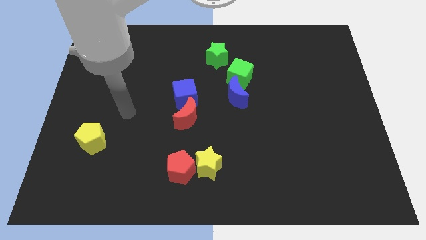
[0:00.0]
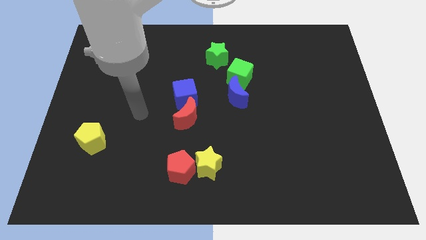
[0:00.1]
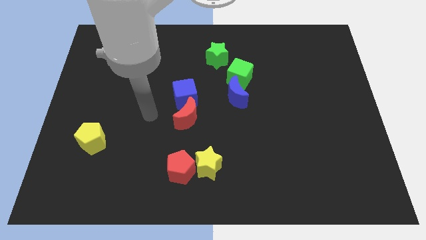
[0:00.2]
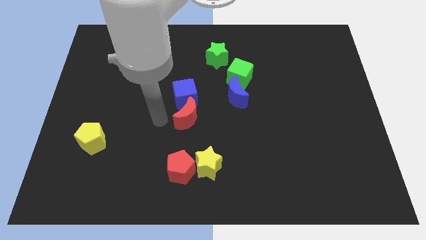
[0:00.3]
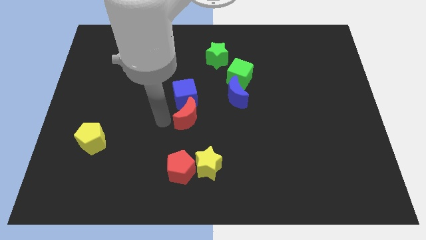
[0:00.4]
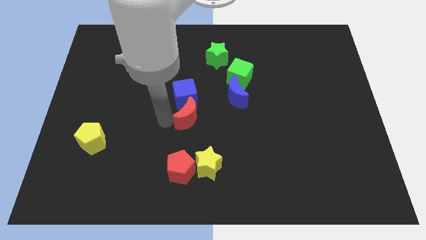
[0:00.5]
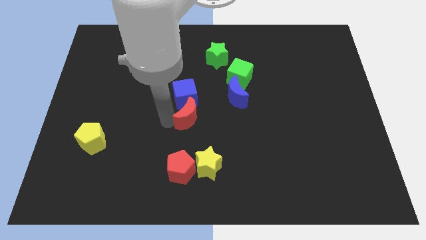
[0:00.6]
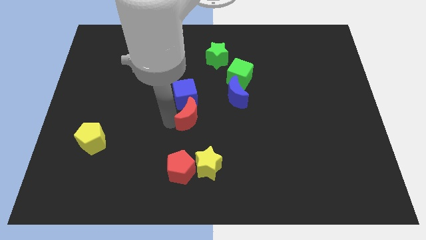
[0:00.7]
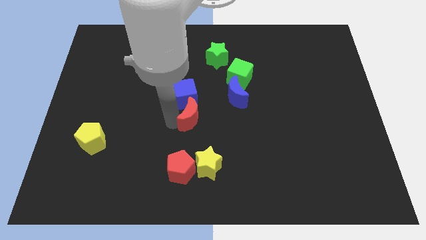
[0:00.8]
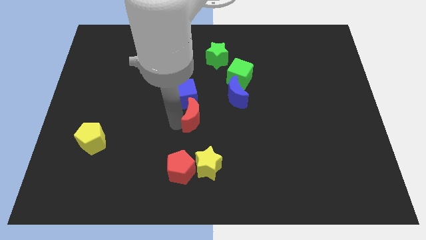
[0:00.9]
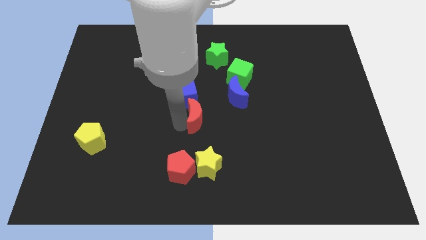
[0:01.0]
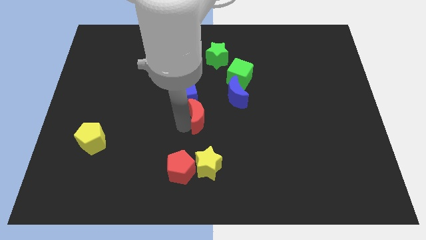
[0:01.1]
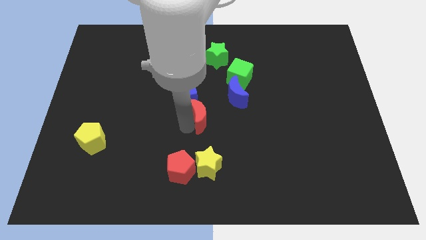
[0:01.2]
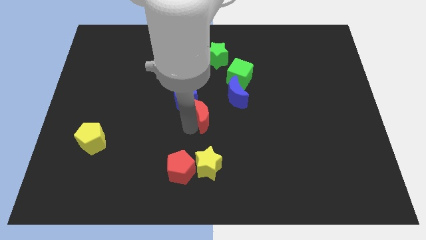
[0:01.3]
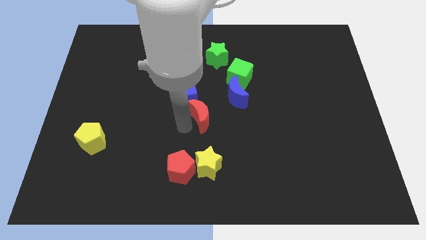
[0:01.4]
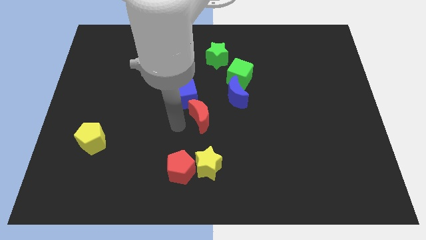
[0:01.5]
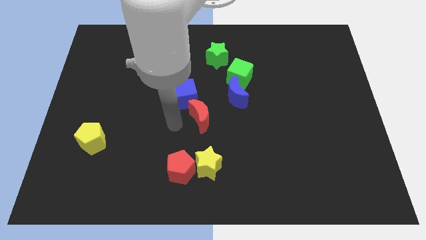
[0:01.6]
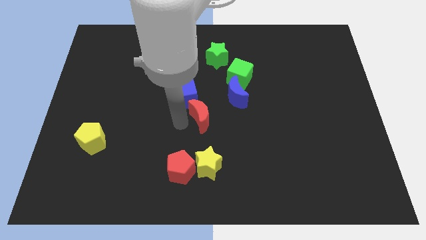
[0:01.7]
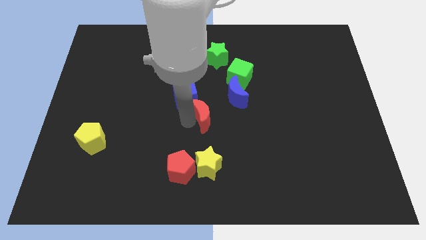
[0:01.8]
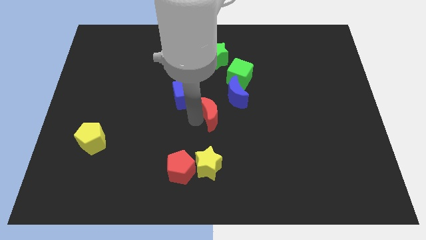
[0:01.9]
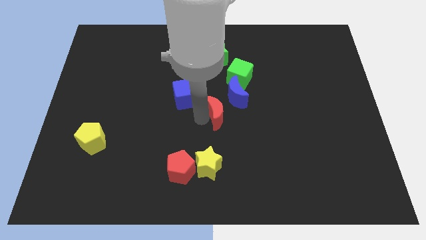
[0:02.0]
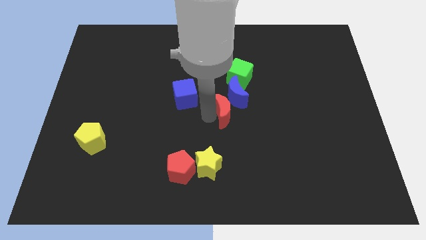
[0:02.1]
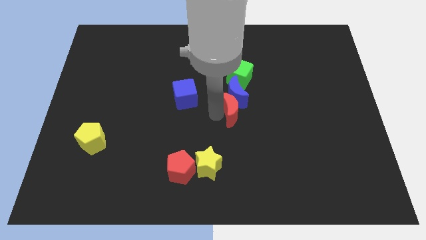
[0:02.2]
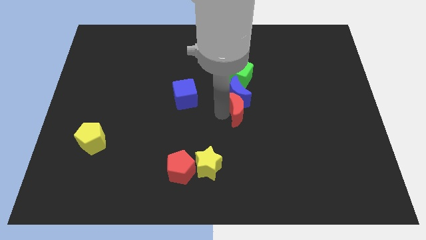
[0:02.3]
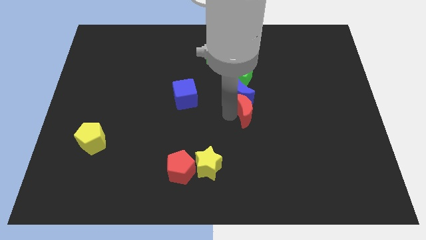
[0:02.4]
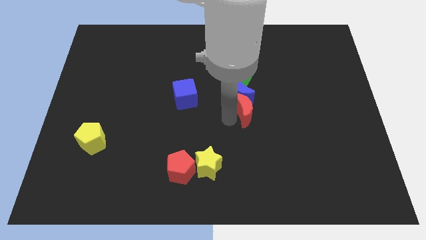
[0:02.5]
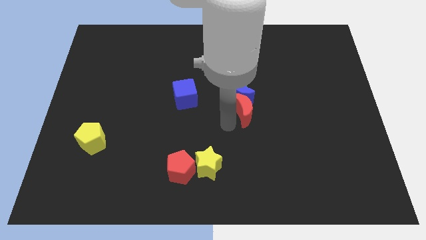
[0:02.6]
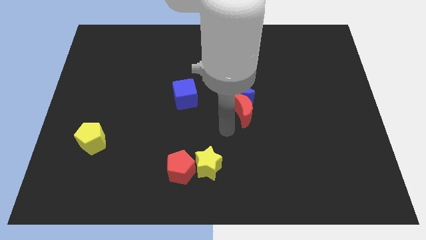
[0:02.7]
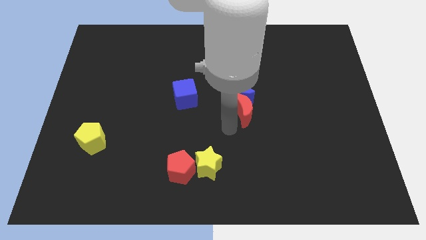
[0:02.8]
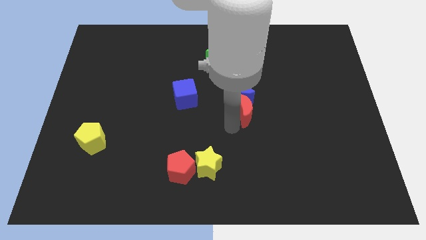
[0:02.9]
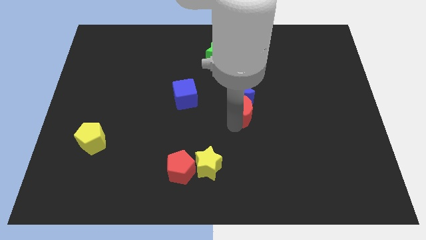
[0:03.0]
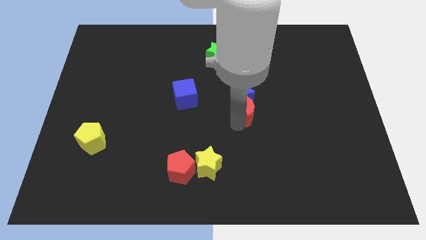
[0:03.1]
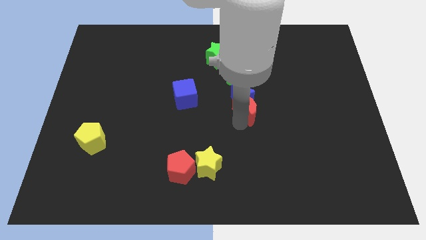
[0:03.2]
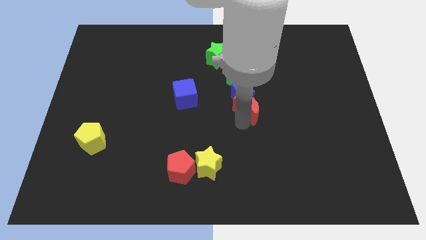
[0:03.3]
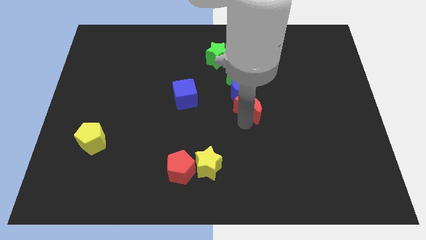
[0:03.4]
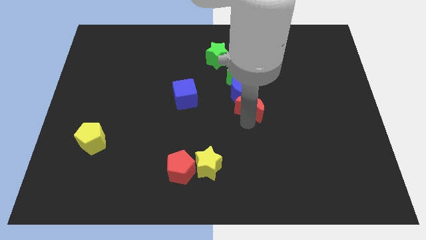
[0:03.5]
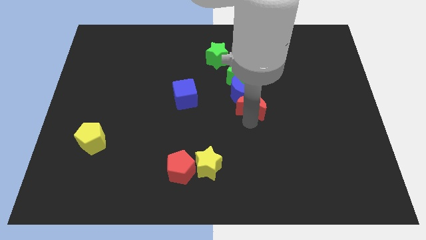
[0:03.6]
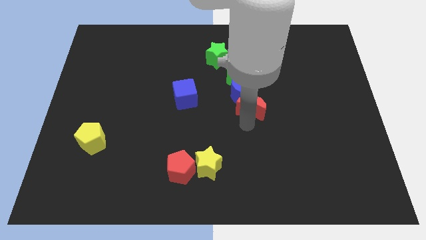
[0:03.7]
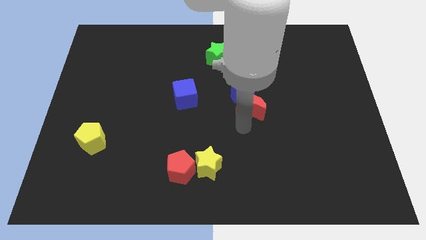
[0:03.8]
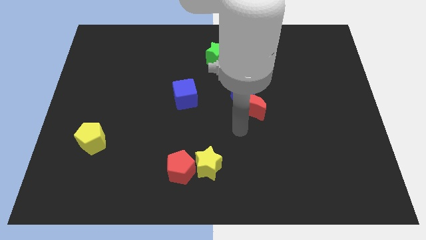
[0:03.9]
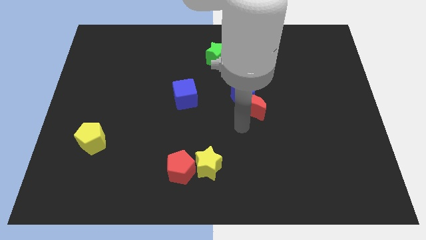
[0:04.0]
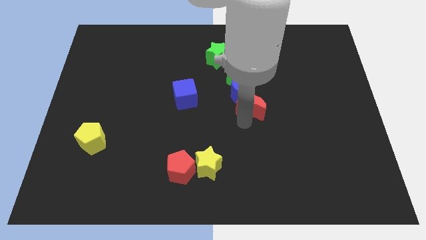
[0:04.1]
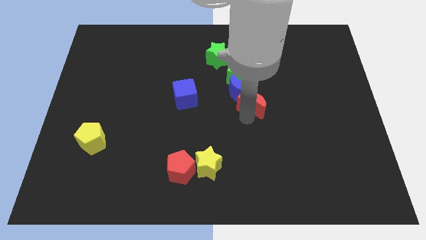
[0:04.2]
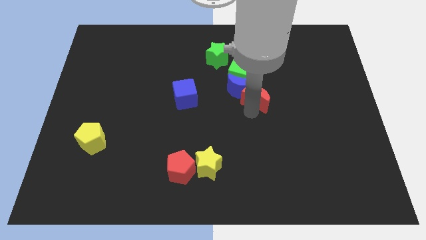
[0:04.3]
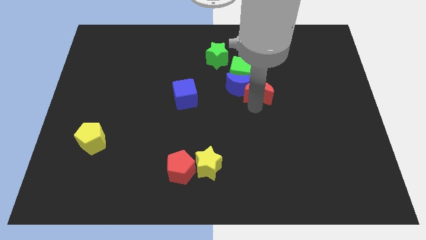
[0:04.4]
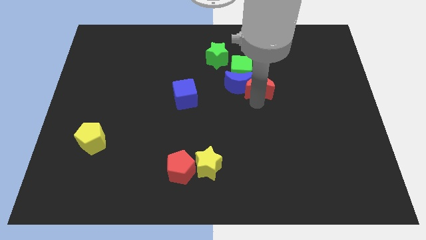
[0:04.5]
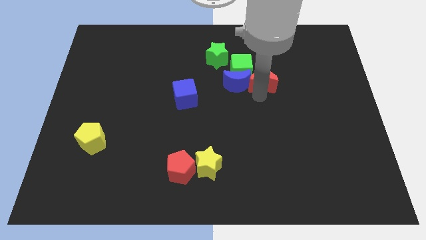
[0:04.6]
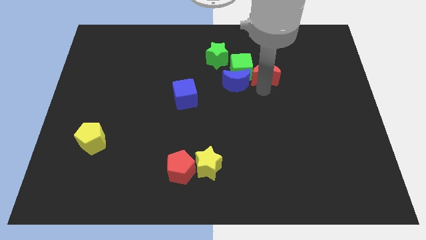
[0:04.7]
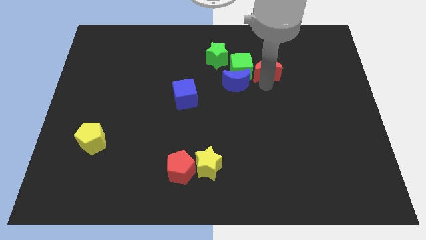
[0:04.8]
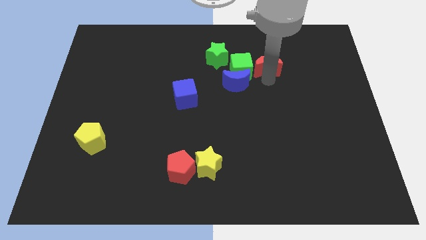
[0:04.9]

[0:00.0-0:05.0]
slide the red moon to the right side of the green star

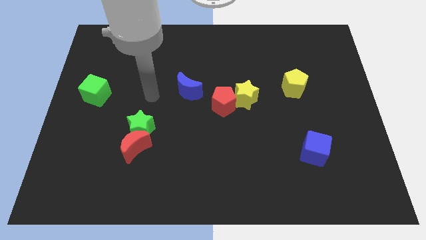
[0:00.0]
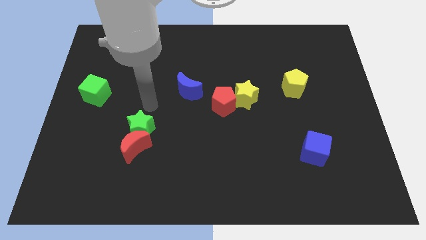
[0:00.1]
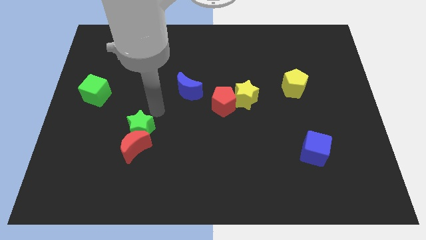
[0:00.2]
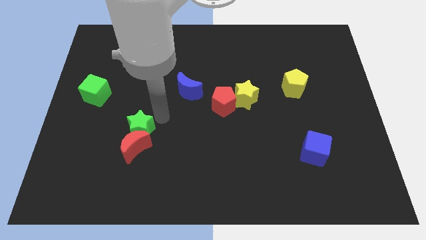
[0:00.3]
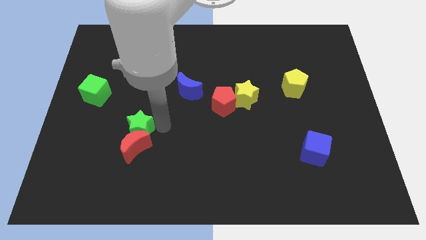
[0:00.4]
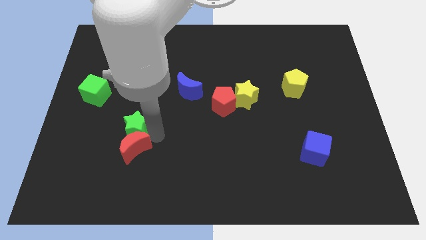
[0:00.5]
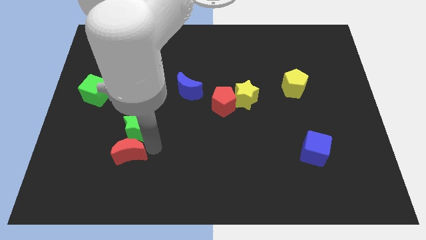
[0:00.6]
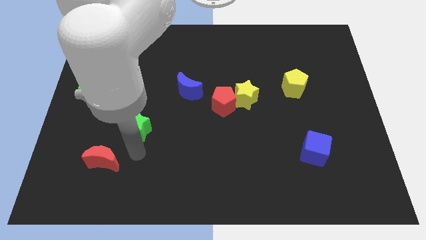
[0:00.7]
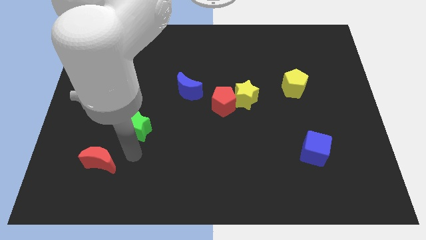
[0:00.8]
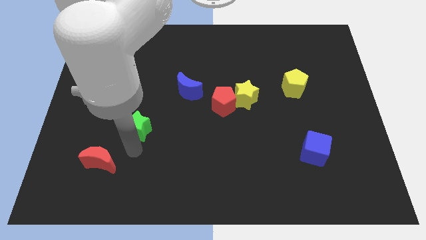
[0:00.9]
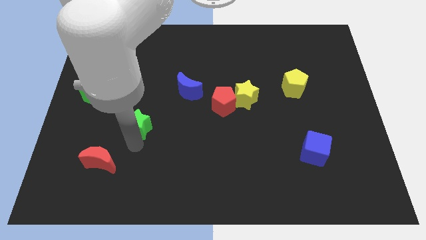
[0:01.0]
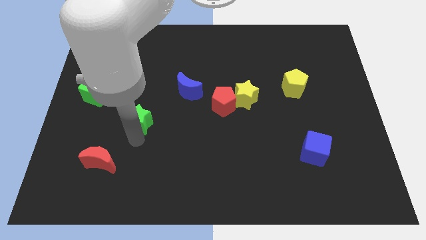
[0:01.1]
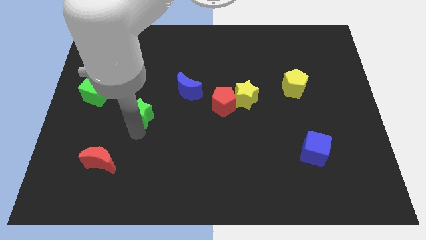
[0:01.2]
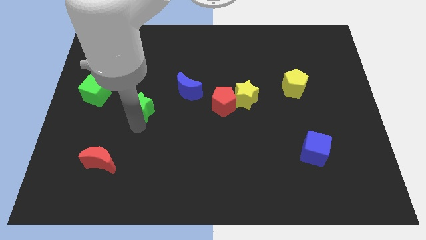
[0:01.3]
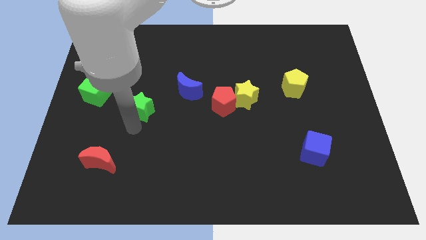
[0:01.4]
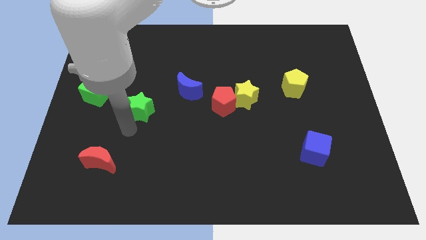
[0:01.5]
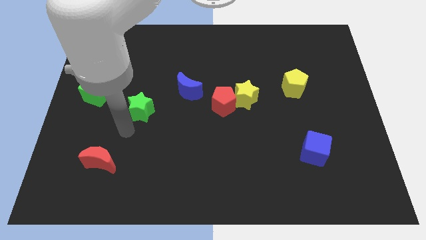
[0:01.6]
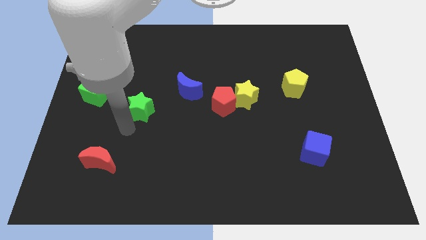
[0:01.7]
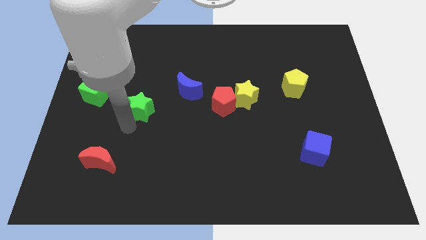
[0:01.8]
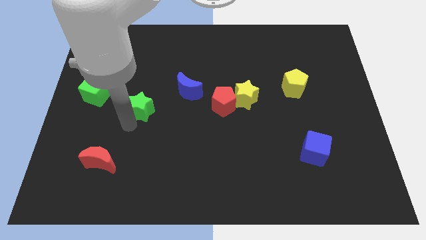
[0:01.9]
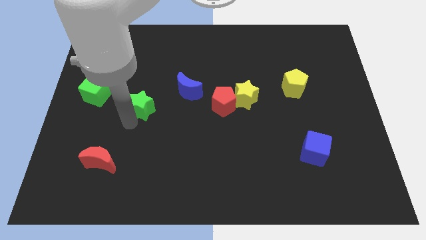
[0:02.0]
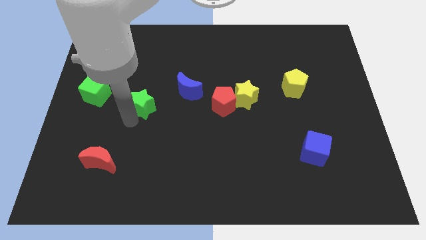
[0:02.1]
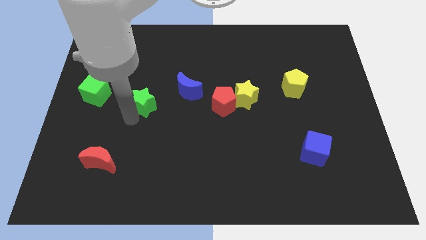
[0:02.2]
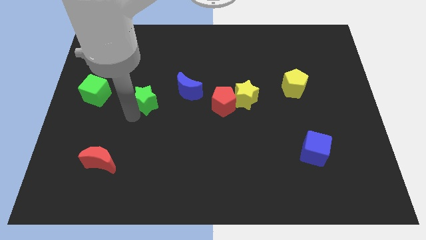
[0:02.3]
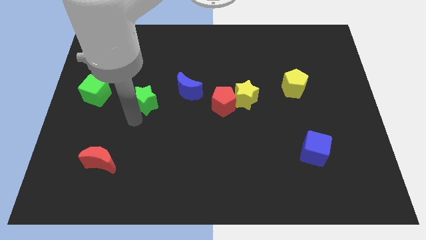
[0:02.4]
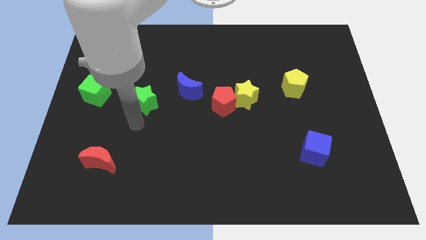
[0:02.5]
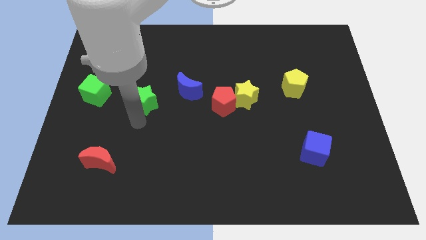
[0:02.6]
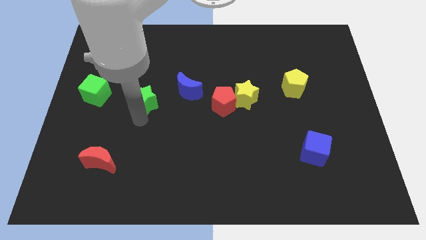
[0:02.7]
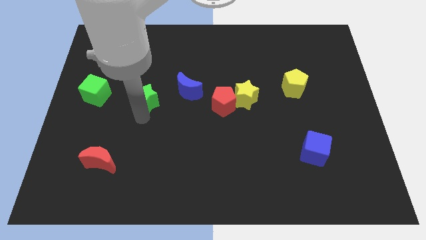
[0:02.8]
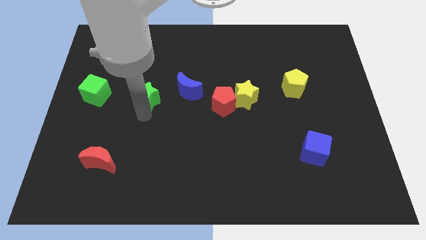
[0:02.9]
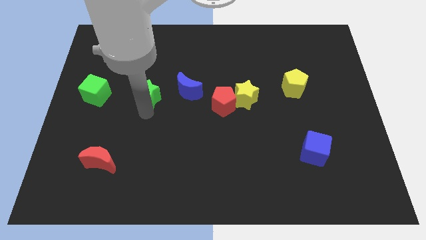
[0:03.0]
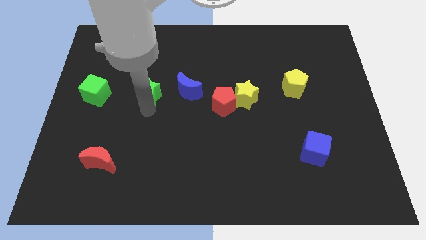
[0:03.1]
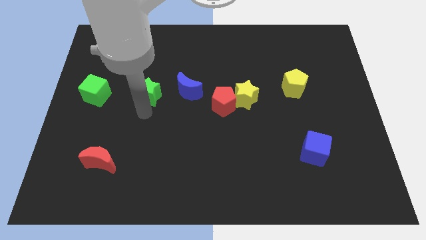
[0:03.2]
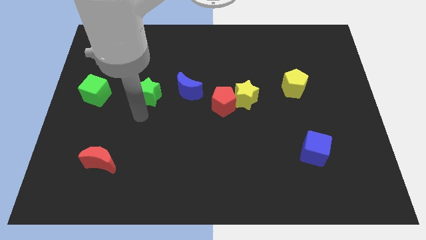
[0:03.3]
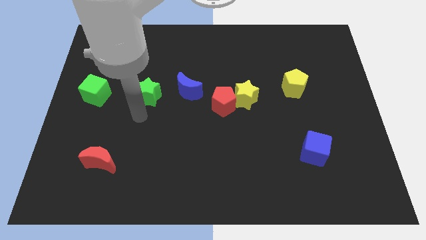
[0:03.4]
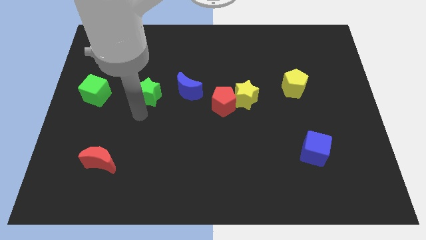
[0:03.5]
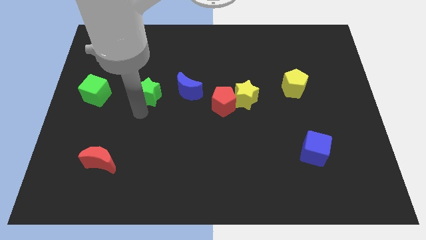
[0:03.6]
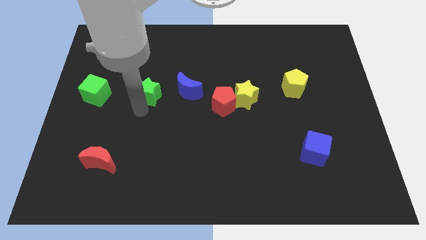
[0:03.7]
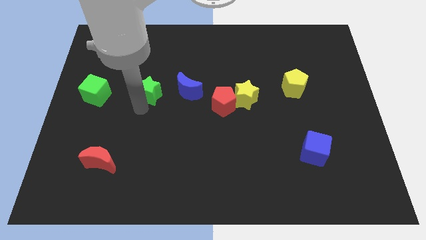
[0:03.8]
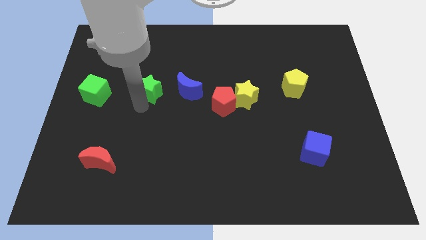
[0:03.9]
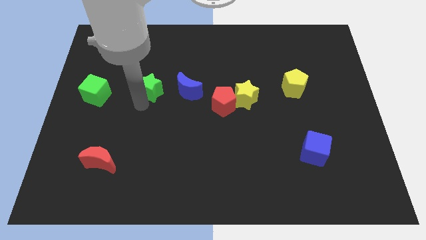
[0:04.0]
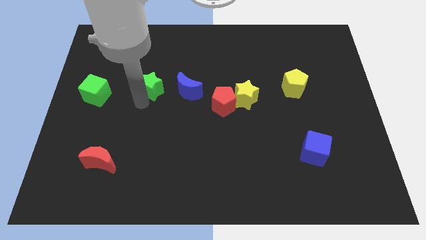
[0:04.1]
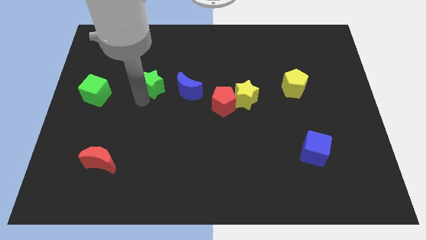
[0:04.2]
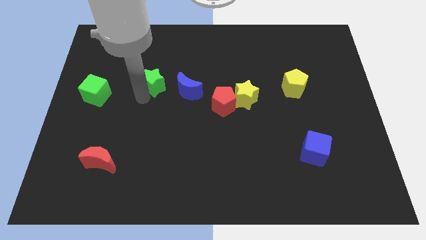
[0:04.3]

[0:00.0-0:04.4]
move the green star to the top left side of the blue moon
